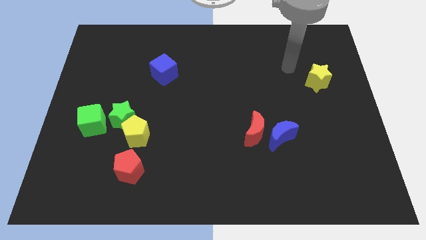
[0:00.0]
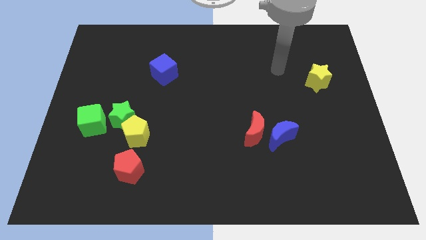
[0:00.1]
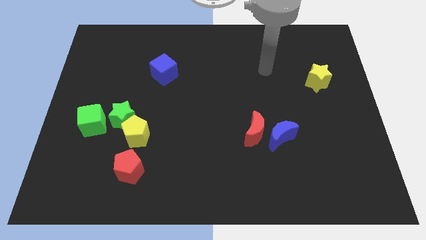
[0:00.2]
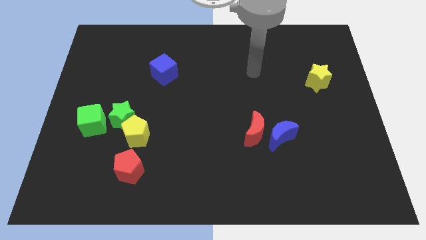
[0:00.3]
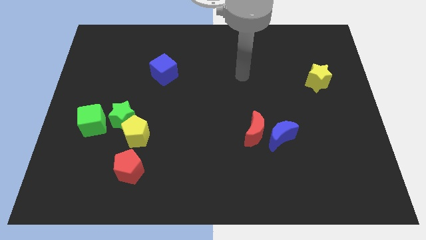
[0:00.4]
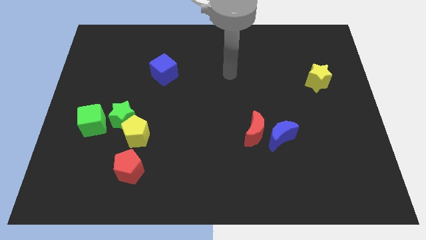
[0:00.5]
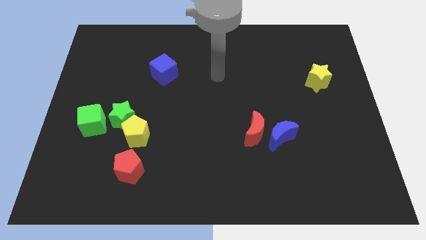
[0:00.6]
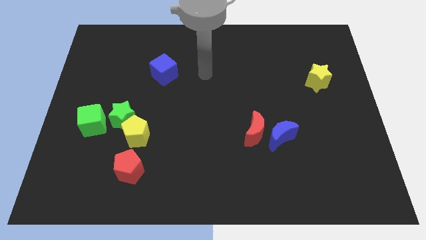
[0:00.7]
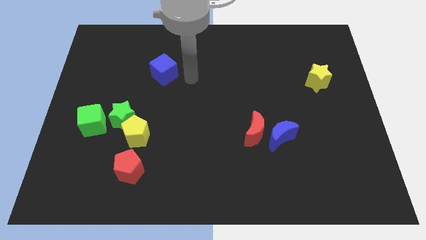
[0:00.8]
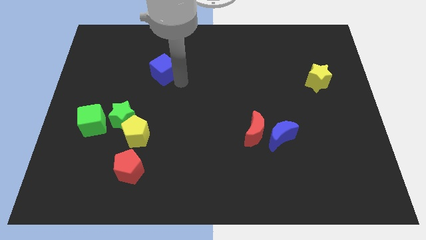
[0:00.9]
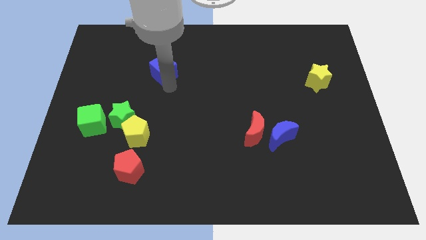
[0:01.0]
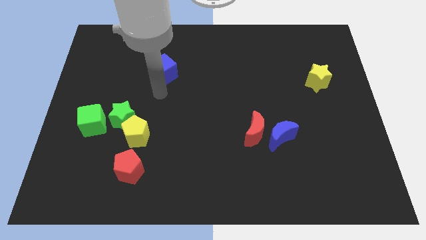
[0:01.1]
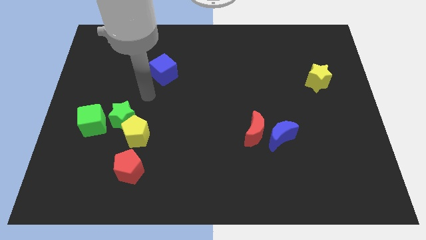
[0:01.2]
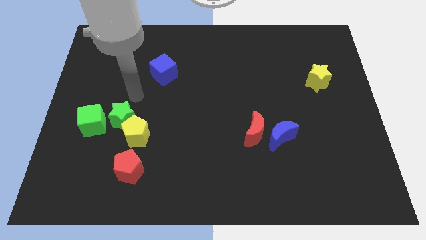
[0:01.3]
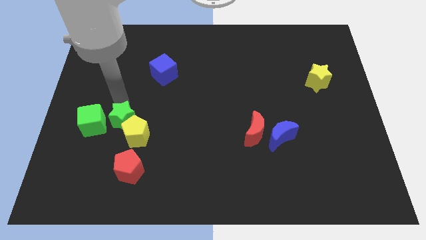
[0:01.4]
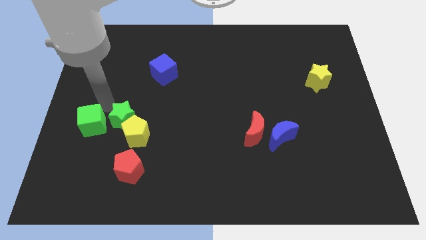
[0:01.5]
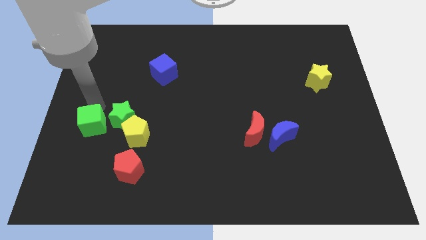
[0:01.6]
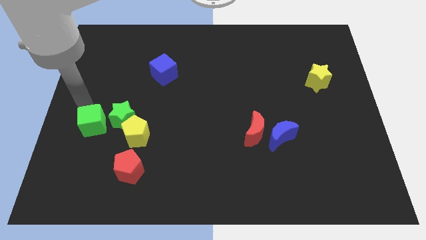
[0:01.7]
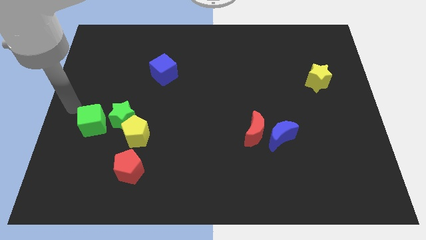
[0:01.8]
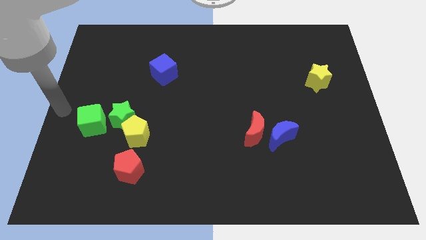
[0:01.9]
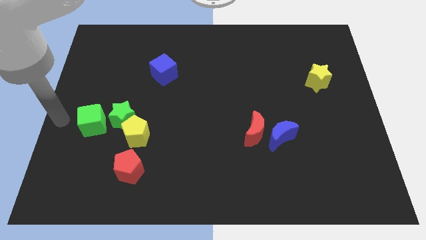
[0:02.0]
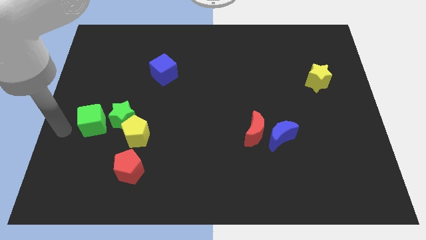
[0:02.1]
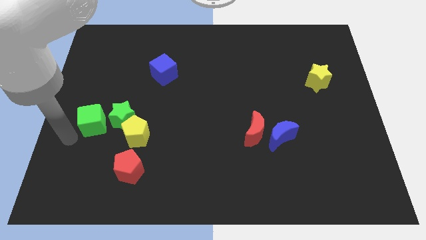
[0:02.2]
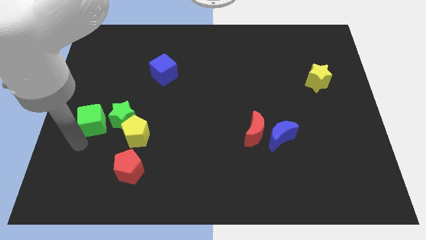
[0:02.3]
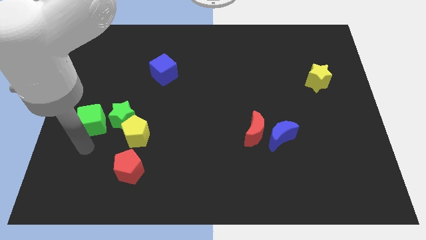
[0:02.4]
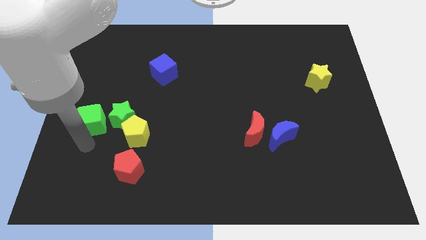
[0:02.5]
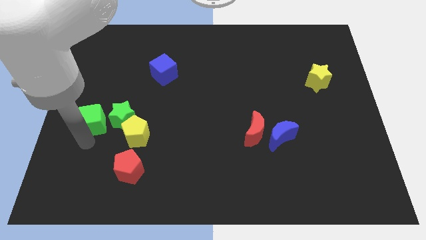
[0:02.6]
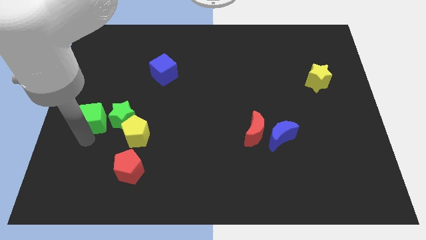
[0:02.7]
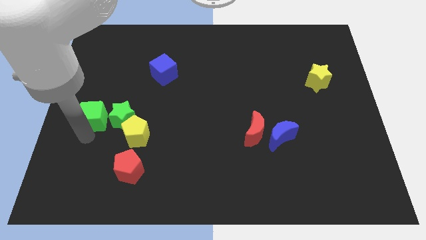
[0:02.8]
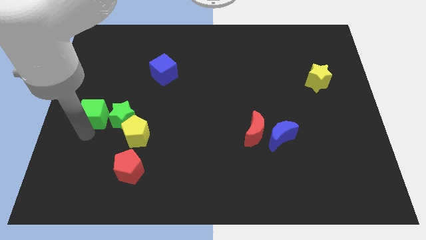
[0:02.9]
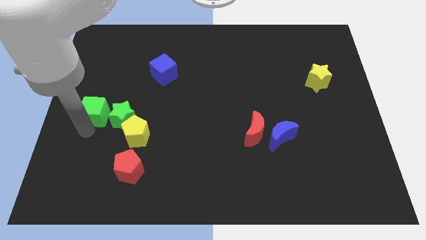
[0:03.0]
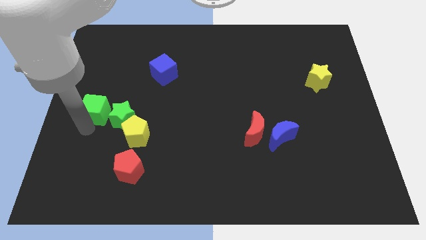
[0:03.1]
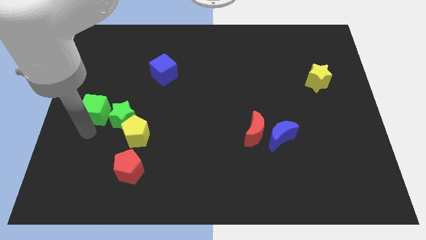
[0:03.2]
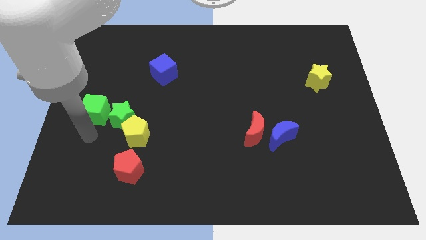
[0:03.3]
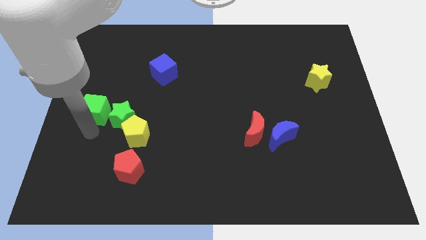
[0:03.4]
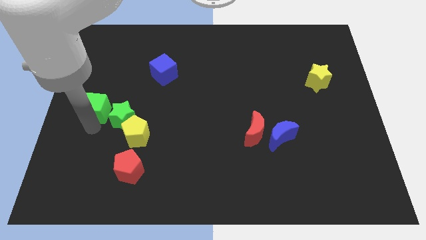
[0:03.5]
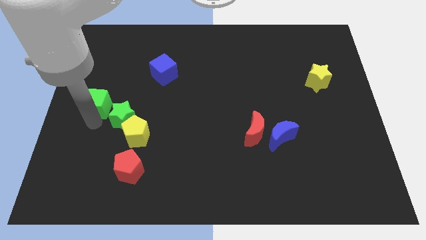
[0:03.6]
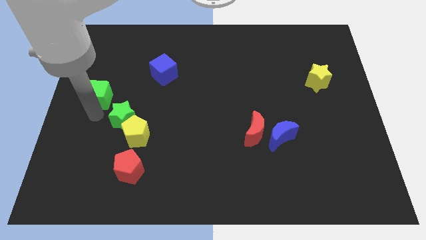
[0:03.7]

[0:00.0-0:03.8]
move the green cube a bit up

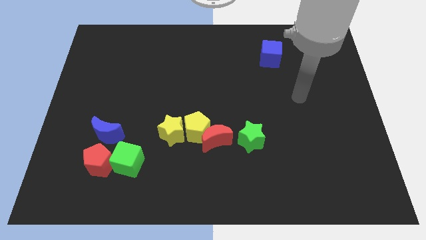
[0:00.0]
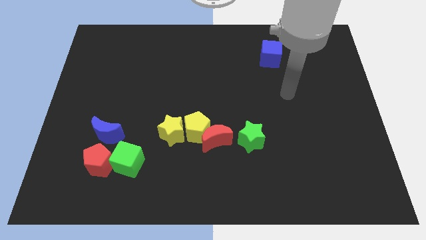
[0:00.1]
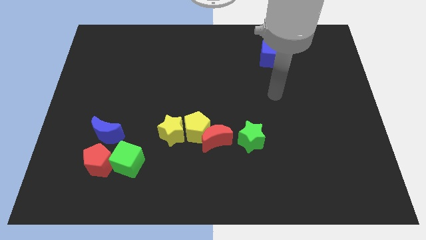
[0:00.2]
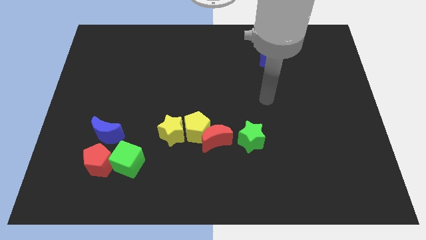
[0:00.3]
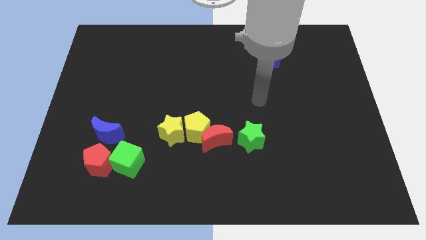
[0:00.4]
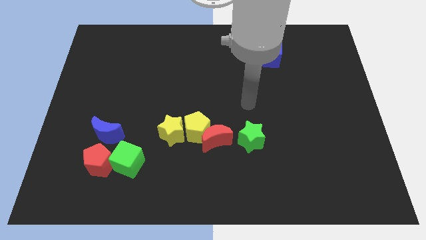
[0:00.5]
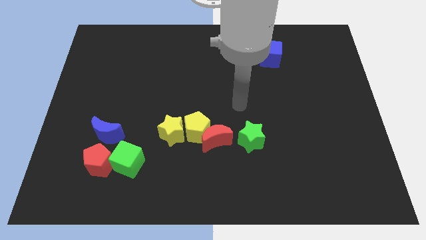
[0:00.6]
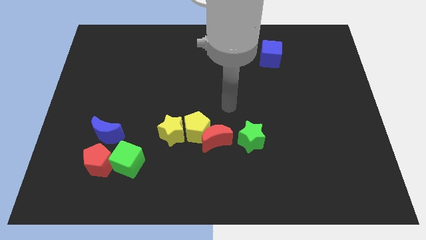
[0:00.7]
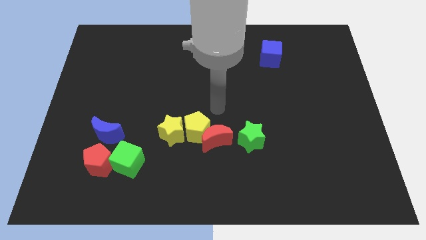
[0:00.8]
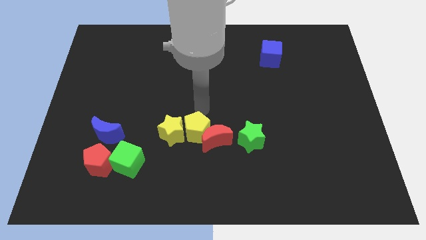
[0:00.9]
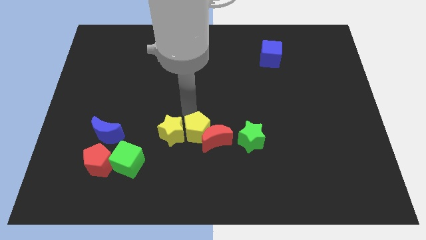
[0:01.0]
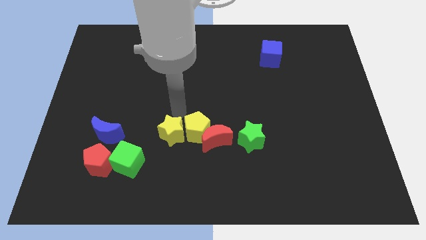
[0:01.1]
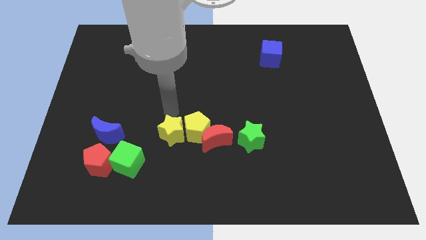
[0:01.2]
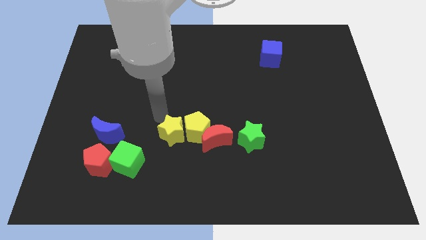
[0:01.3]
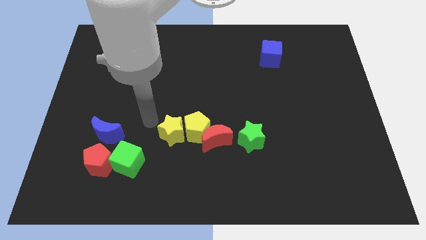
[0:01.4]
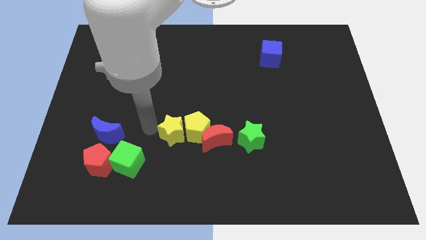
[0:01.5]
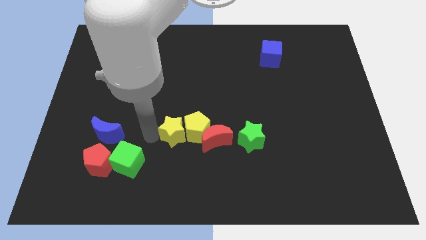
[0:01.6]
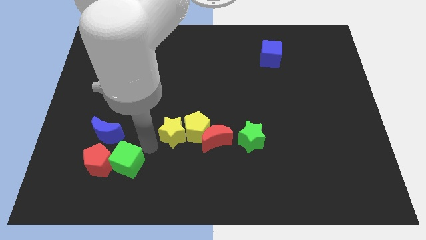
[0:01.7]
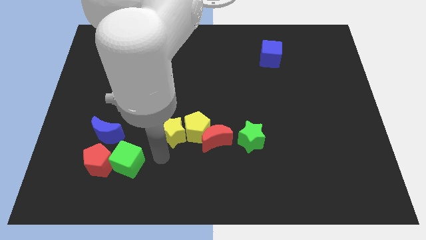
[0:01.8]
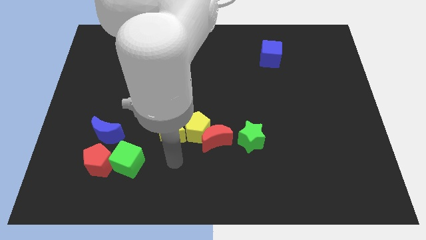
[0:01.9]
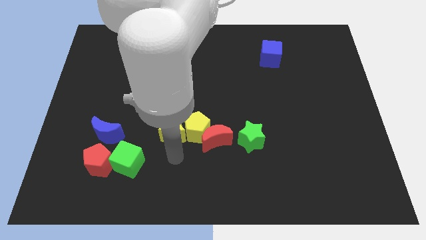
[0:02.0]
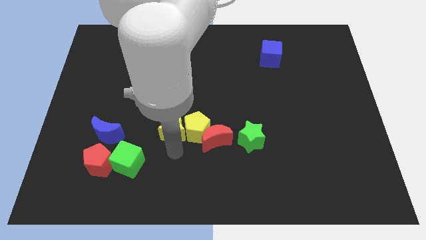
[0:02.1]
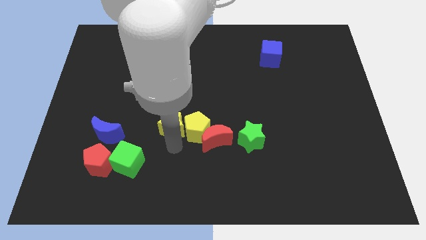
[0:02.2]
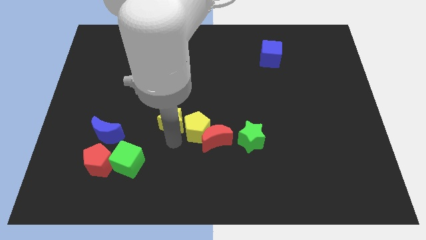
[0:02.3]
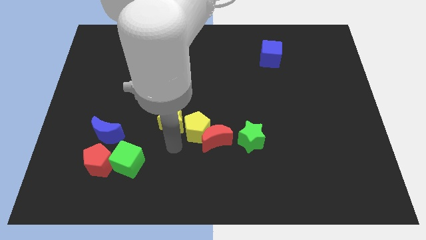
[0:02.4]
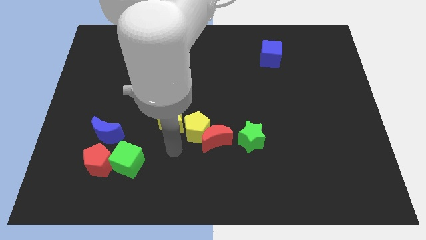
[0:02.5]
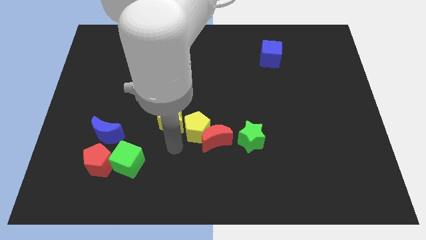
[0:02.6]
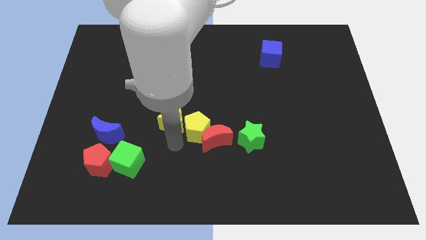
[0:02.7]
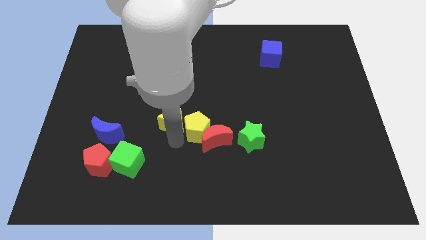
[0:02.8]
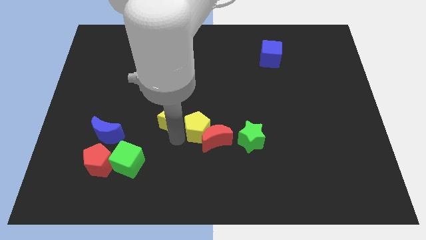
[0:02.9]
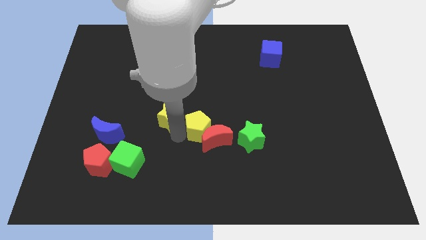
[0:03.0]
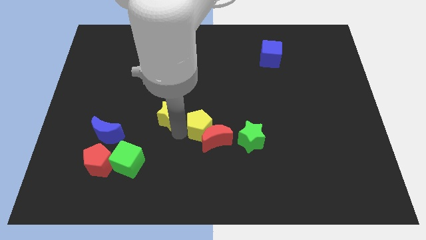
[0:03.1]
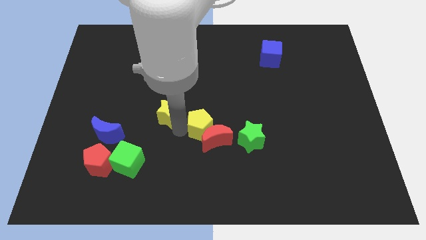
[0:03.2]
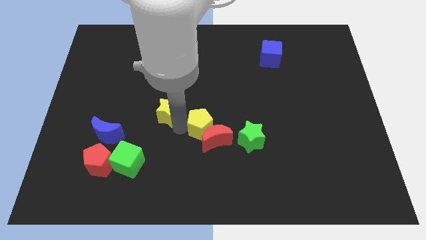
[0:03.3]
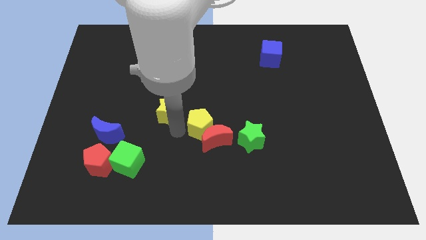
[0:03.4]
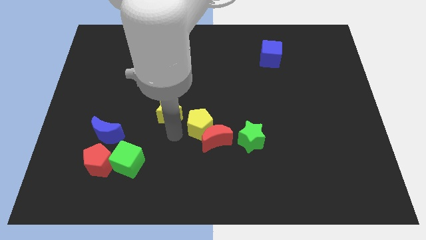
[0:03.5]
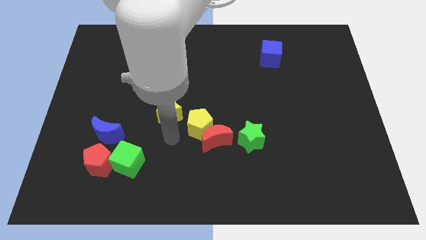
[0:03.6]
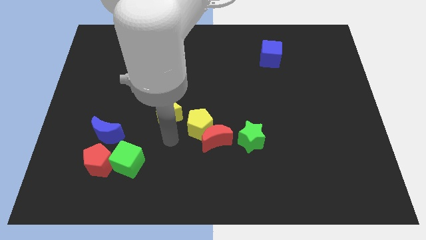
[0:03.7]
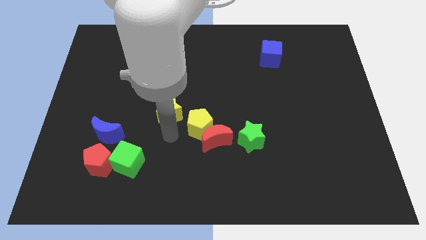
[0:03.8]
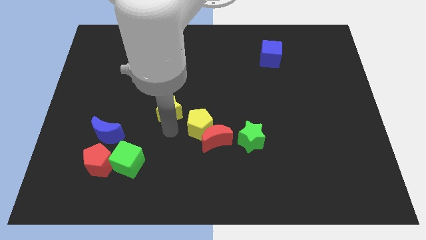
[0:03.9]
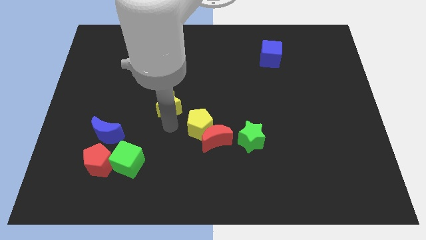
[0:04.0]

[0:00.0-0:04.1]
move the yellow star slightly upwards
